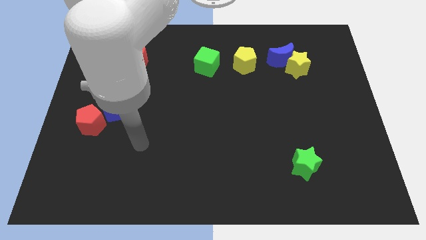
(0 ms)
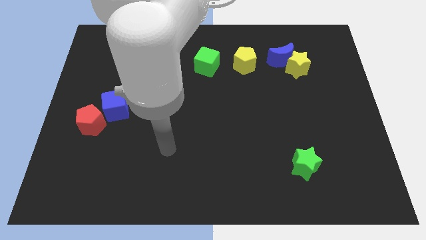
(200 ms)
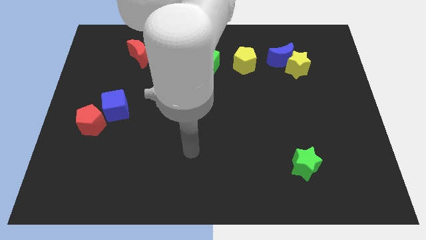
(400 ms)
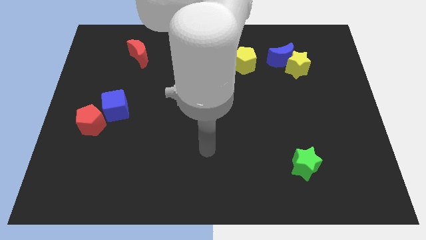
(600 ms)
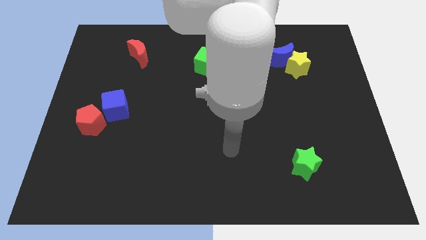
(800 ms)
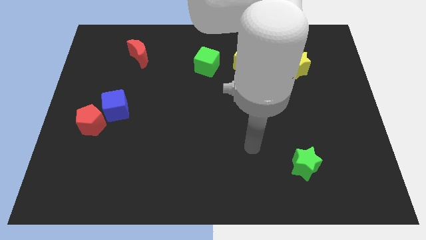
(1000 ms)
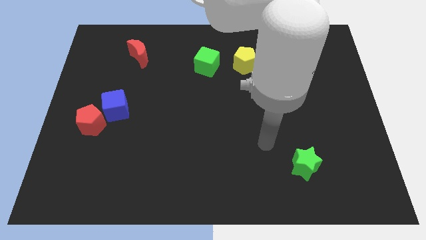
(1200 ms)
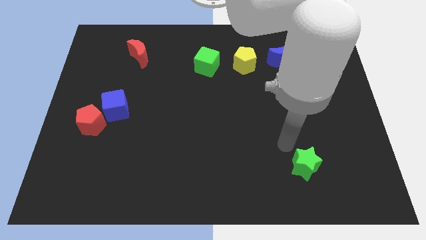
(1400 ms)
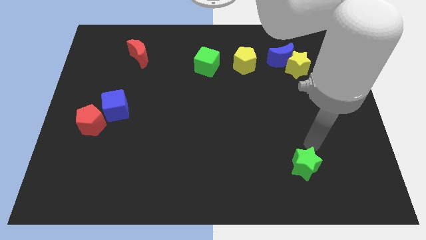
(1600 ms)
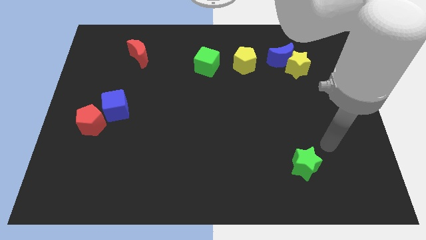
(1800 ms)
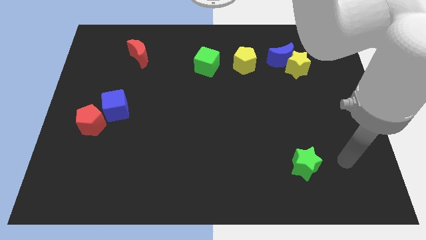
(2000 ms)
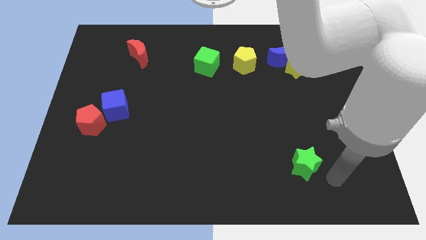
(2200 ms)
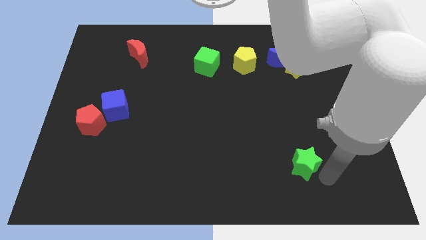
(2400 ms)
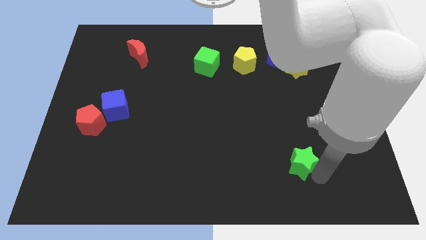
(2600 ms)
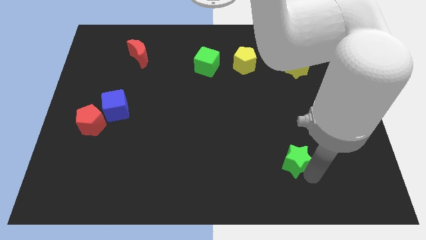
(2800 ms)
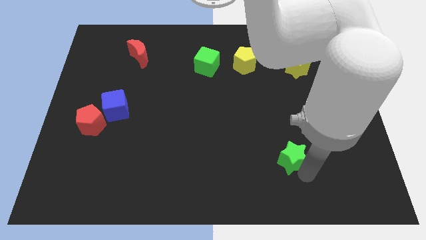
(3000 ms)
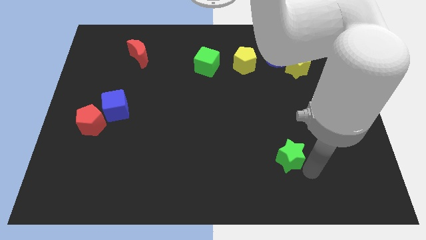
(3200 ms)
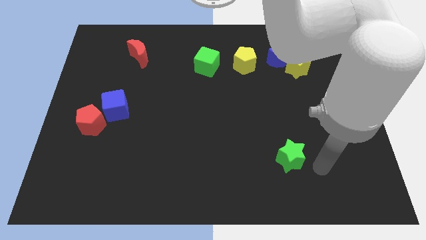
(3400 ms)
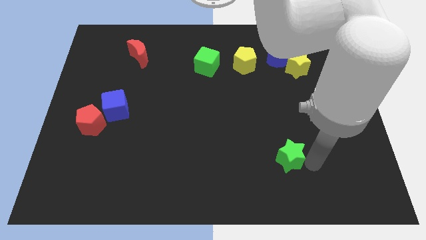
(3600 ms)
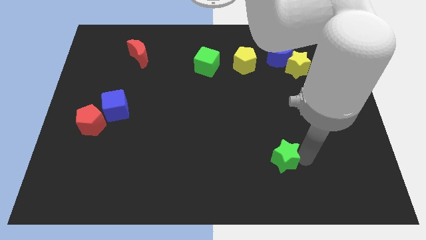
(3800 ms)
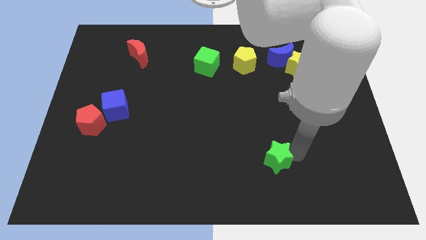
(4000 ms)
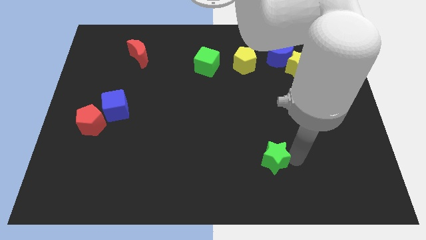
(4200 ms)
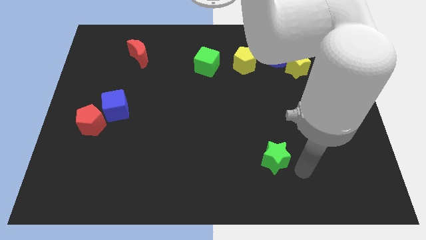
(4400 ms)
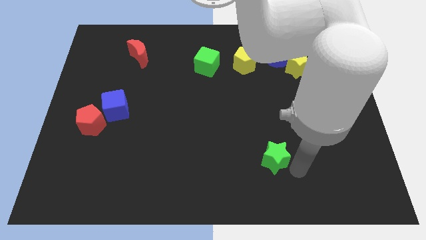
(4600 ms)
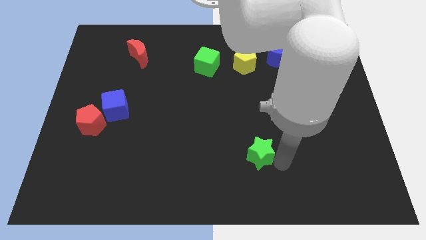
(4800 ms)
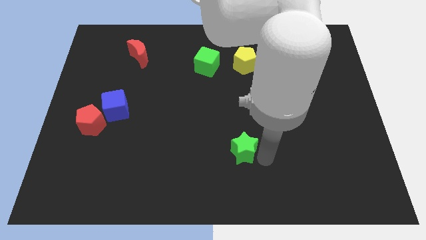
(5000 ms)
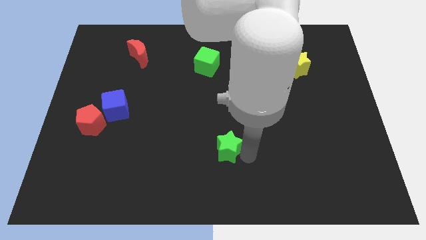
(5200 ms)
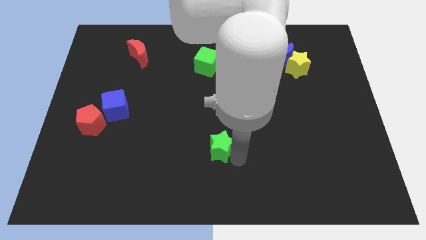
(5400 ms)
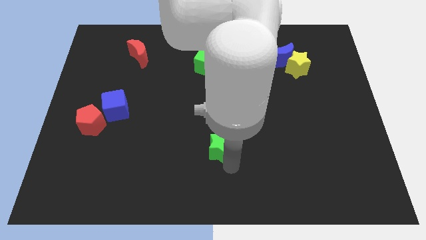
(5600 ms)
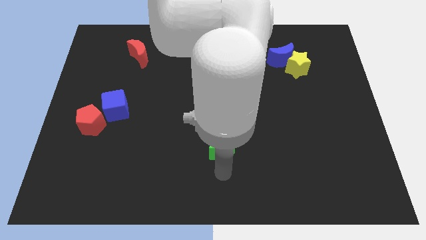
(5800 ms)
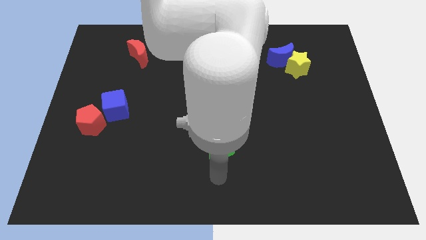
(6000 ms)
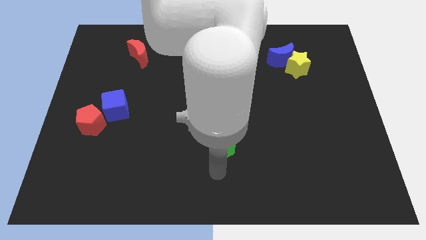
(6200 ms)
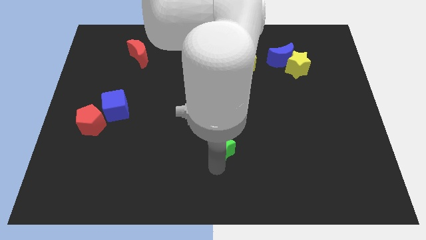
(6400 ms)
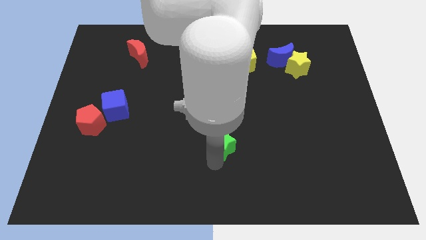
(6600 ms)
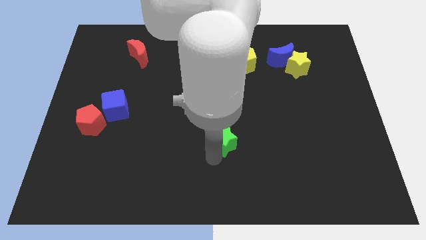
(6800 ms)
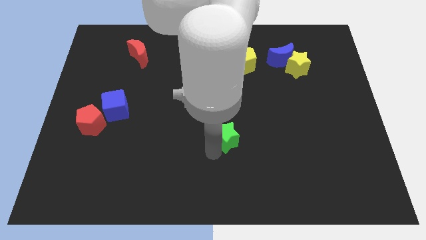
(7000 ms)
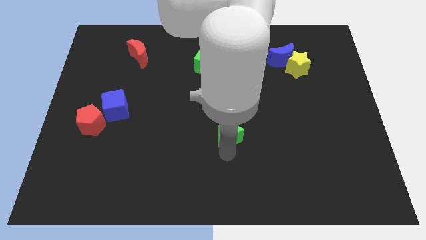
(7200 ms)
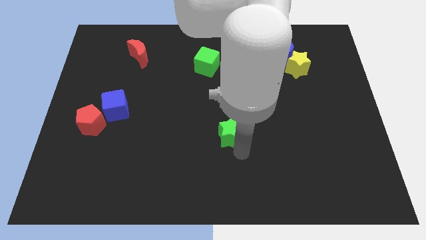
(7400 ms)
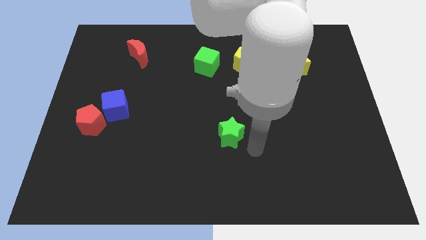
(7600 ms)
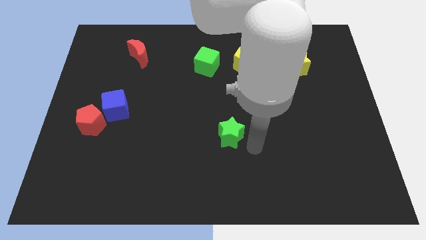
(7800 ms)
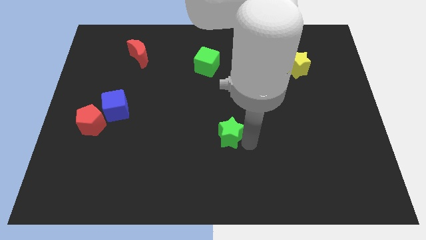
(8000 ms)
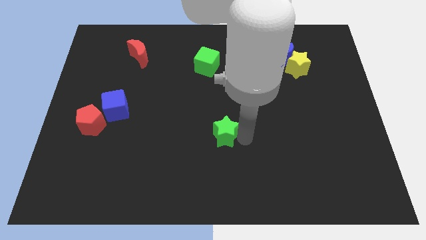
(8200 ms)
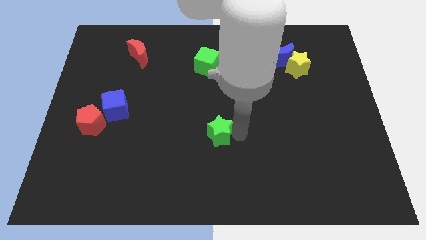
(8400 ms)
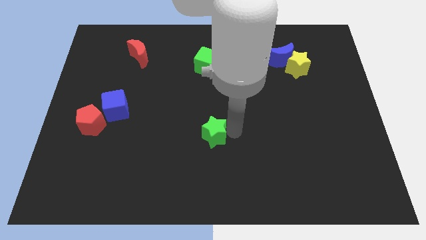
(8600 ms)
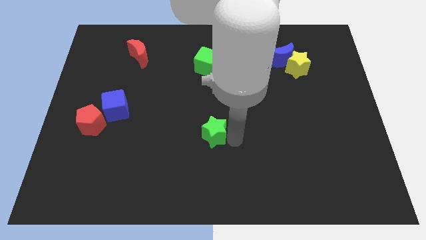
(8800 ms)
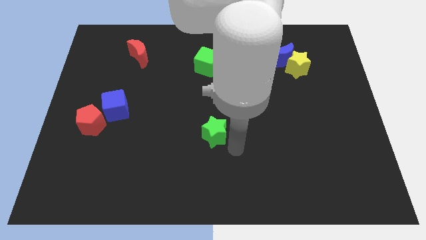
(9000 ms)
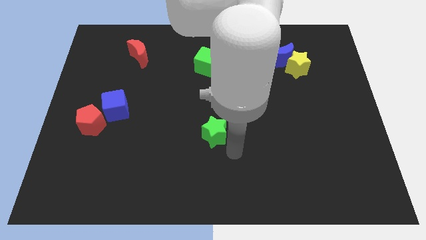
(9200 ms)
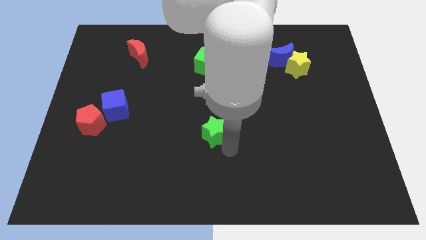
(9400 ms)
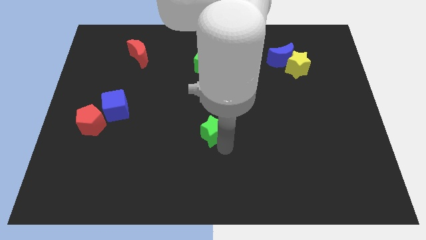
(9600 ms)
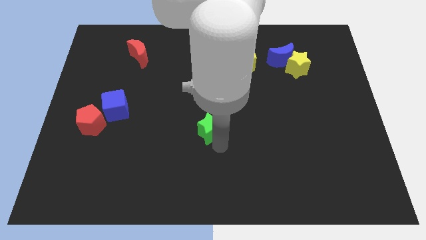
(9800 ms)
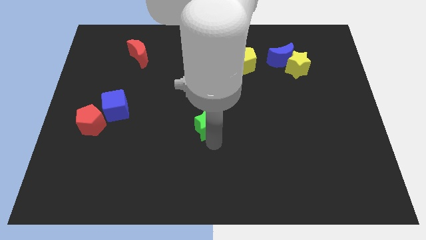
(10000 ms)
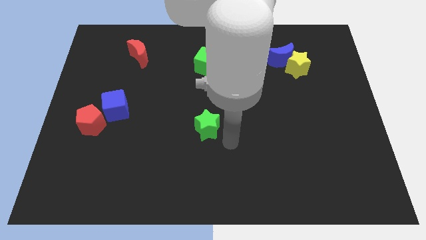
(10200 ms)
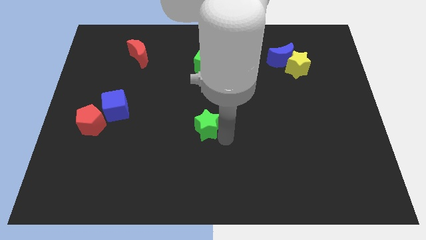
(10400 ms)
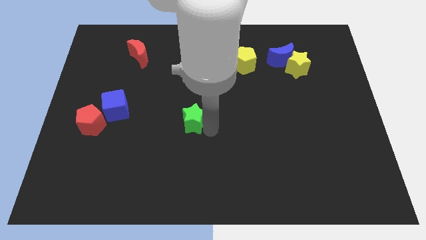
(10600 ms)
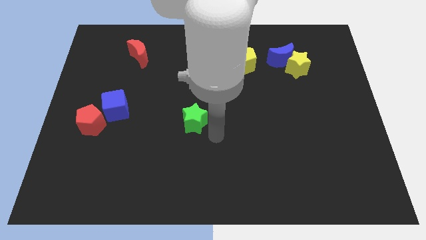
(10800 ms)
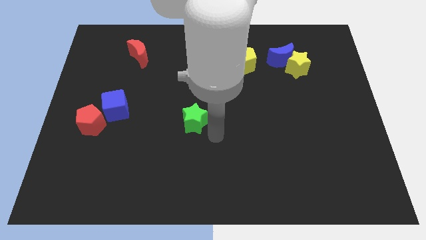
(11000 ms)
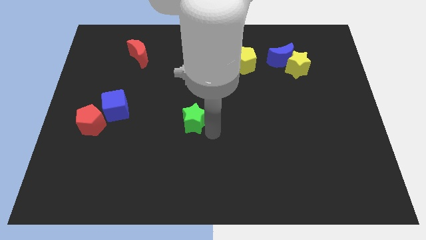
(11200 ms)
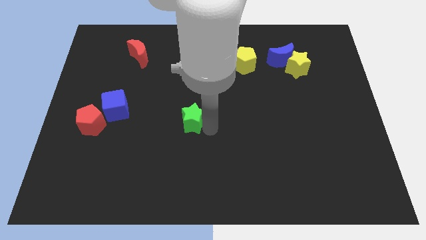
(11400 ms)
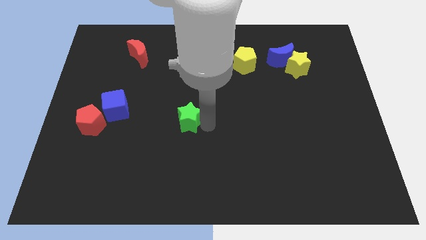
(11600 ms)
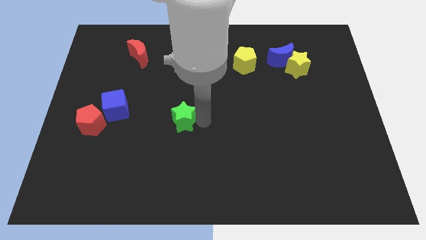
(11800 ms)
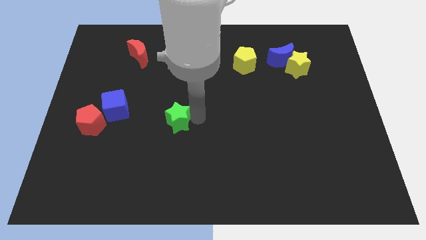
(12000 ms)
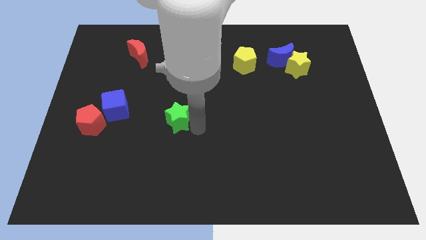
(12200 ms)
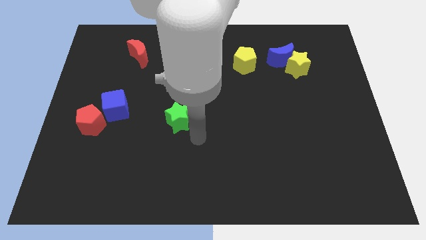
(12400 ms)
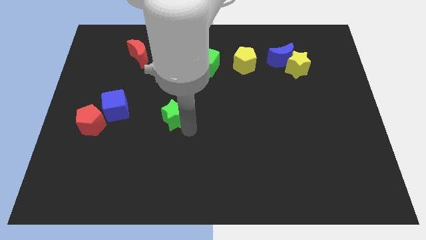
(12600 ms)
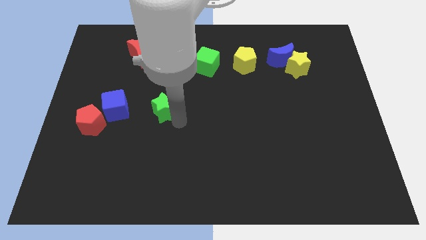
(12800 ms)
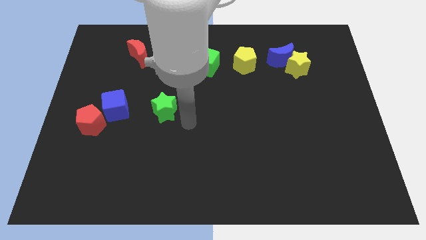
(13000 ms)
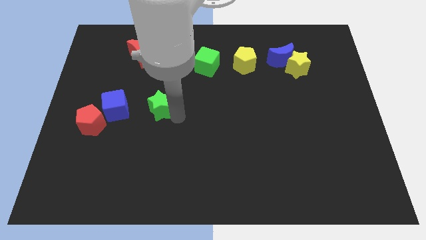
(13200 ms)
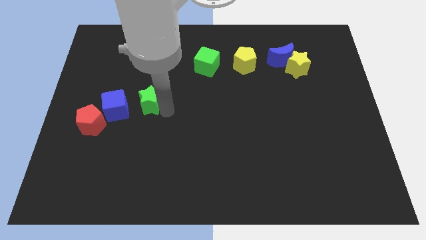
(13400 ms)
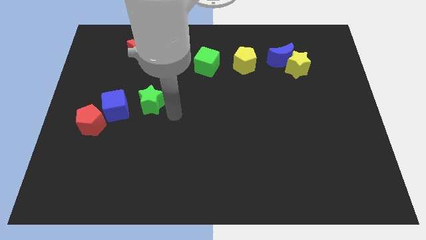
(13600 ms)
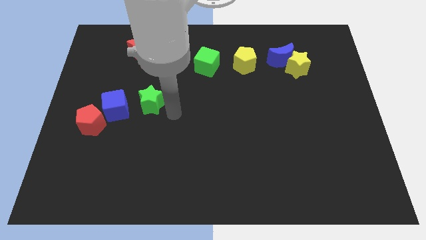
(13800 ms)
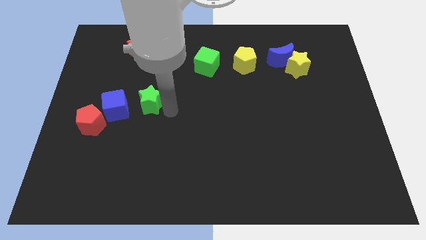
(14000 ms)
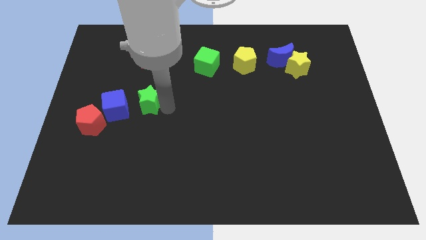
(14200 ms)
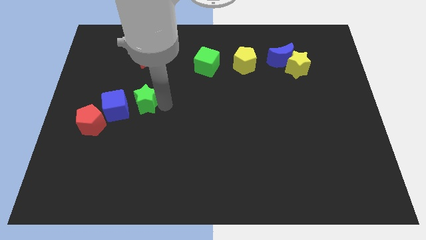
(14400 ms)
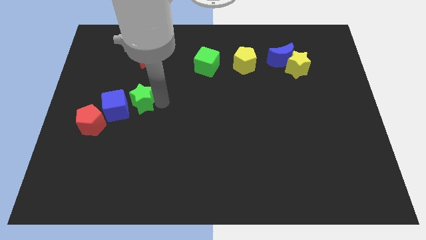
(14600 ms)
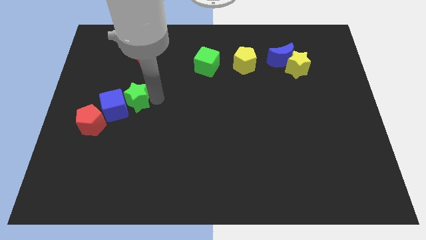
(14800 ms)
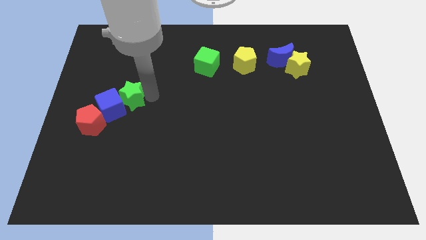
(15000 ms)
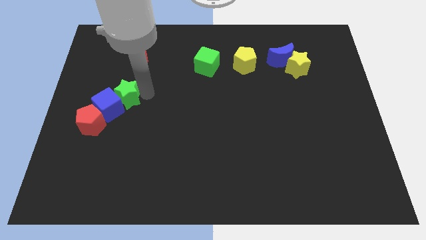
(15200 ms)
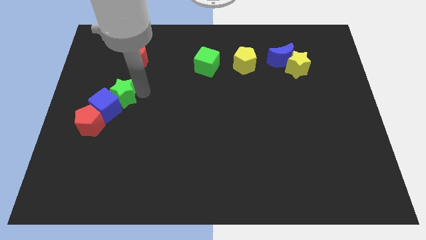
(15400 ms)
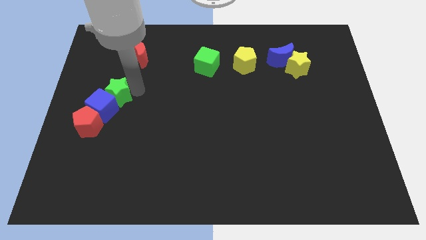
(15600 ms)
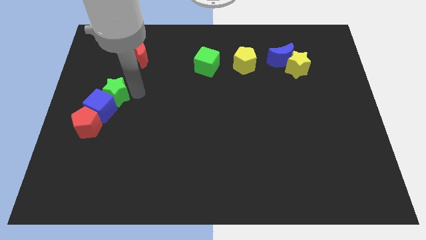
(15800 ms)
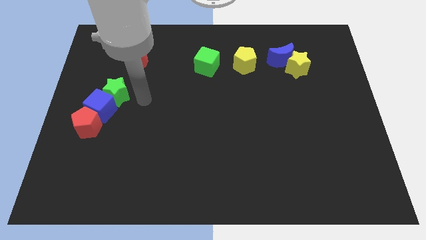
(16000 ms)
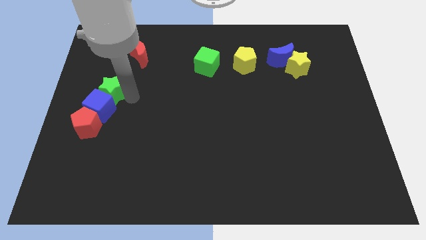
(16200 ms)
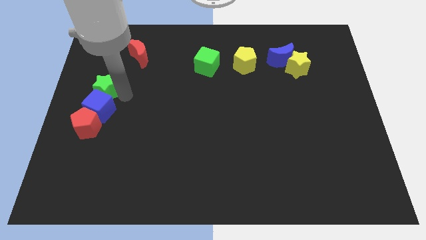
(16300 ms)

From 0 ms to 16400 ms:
push the green star to the left side
